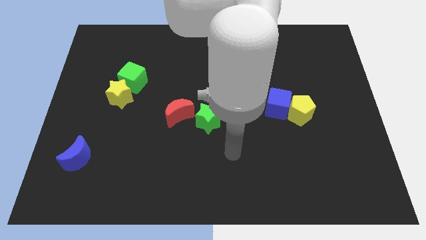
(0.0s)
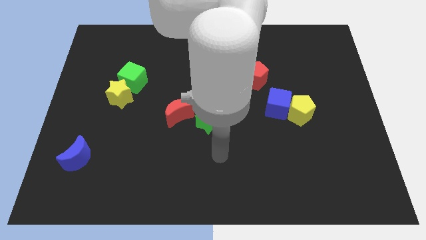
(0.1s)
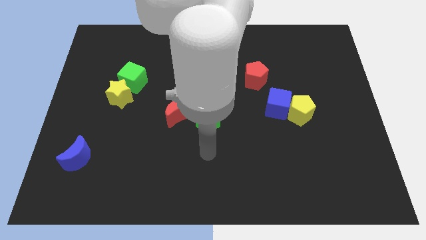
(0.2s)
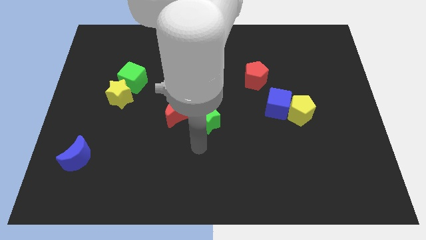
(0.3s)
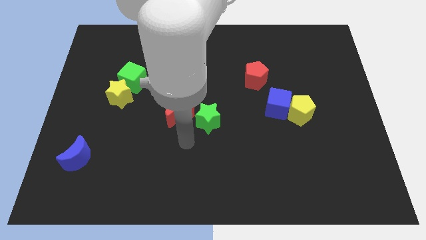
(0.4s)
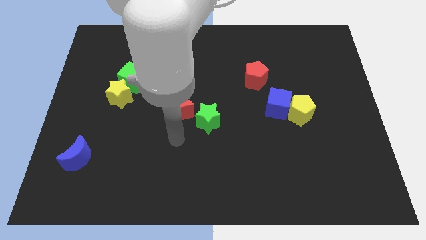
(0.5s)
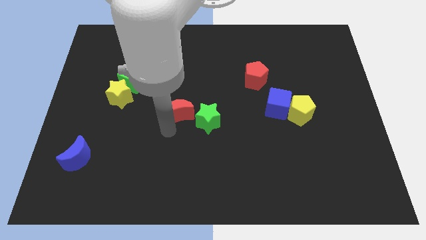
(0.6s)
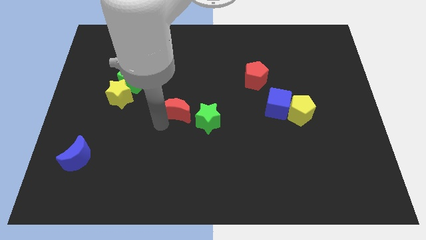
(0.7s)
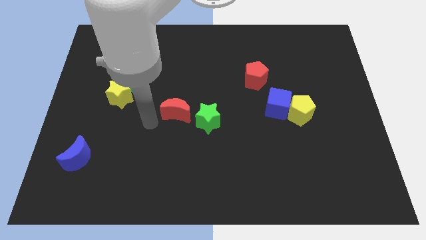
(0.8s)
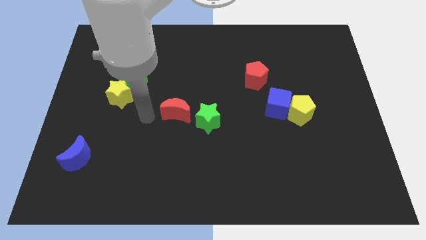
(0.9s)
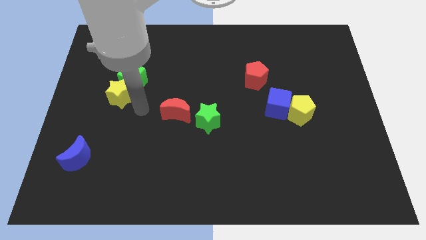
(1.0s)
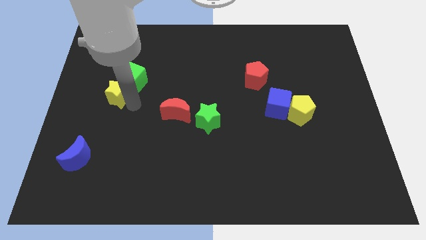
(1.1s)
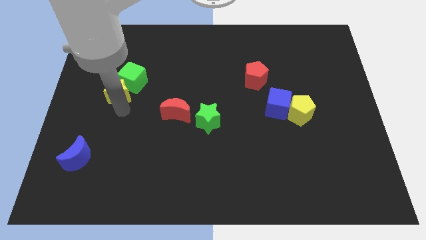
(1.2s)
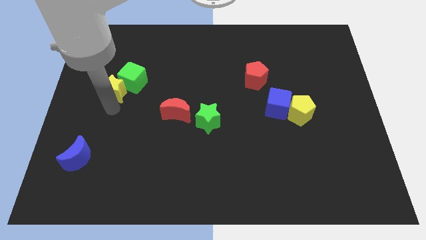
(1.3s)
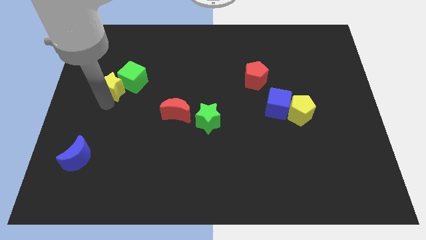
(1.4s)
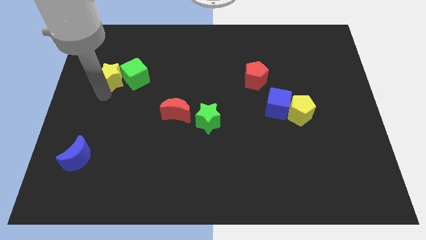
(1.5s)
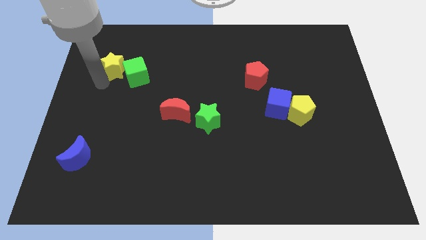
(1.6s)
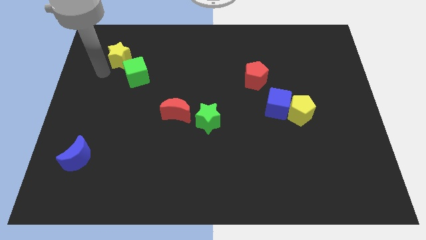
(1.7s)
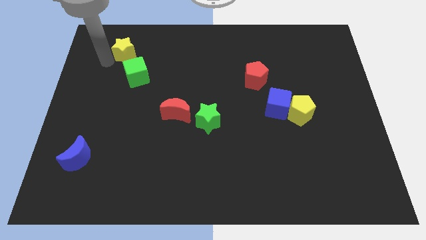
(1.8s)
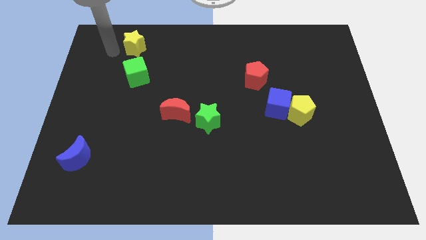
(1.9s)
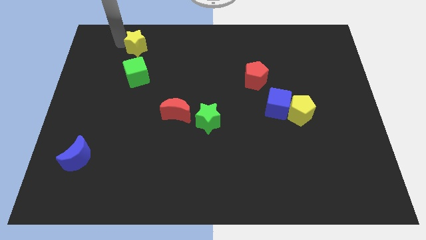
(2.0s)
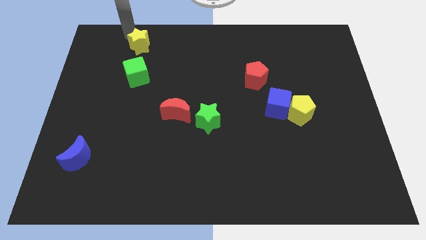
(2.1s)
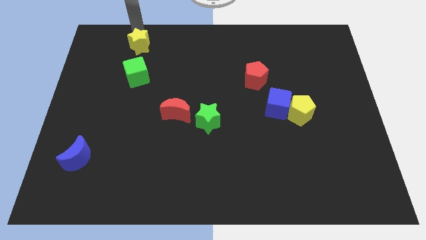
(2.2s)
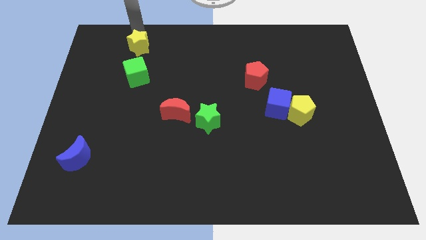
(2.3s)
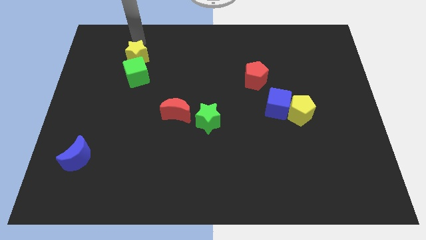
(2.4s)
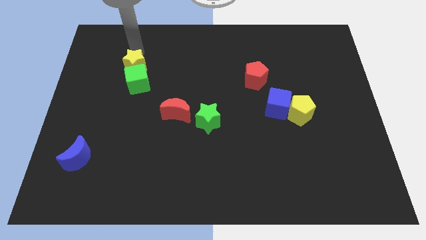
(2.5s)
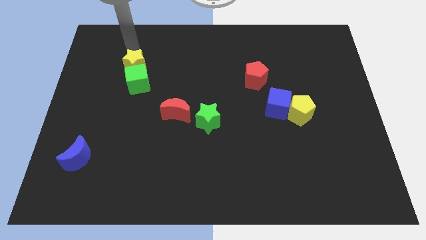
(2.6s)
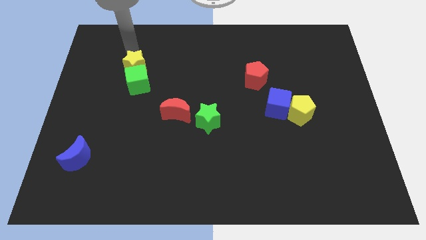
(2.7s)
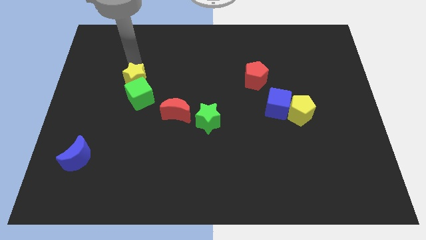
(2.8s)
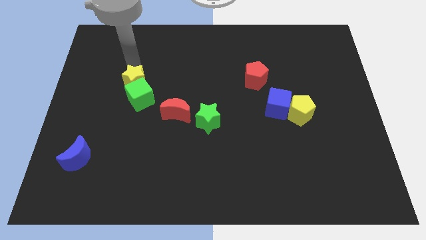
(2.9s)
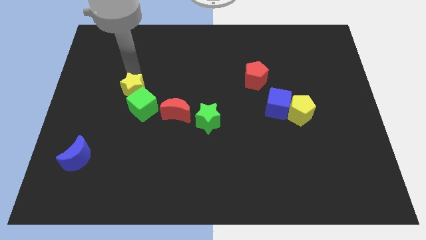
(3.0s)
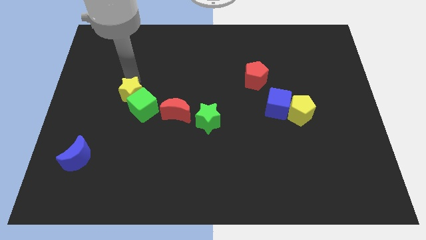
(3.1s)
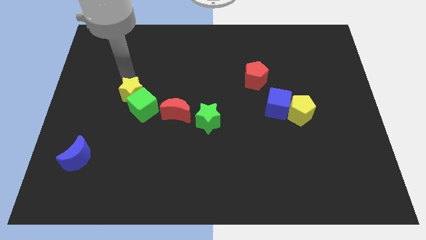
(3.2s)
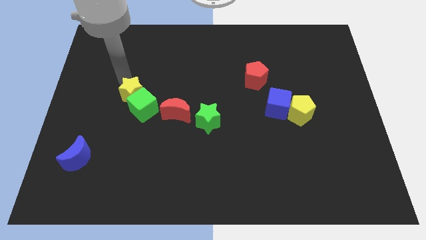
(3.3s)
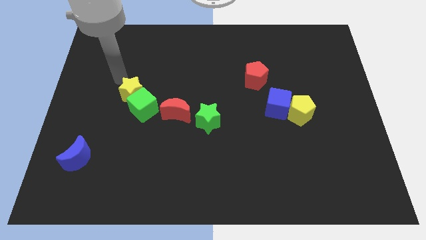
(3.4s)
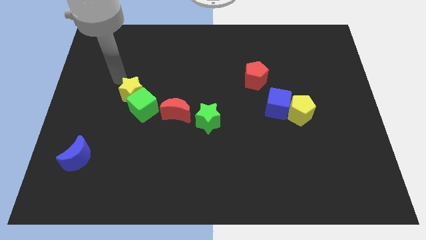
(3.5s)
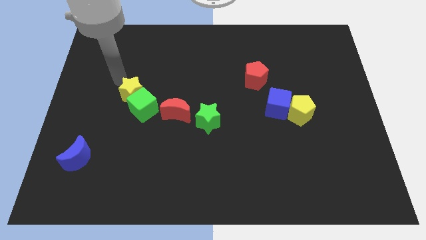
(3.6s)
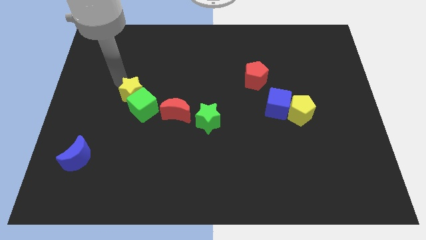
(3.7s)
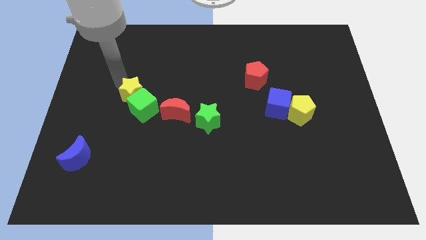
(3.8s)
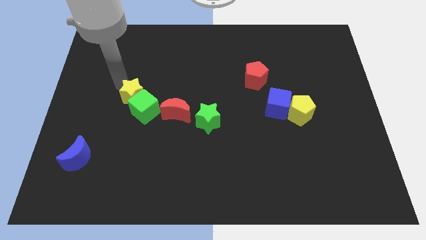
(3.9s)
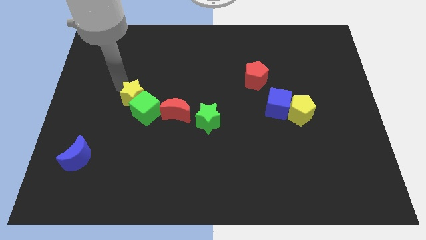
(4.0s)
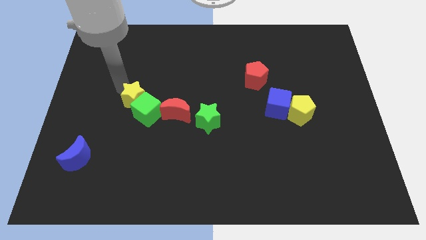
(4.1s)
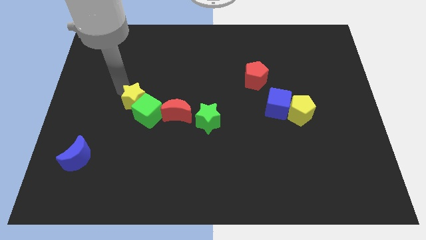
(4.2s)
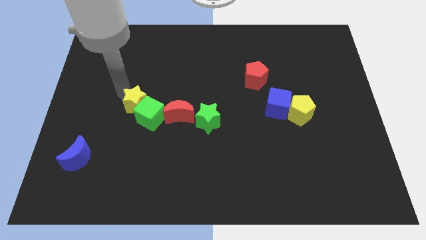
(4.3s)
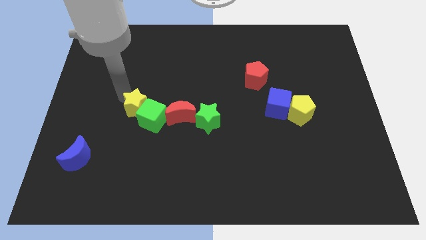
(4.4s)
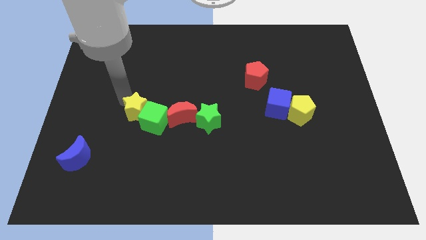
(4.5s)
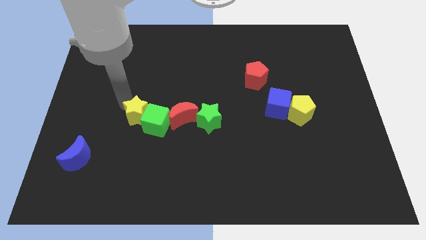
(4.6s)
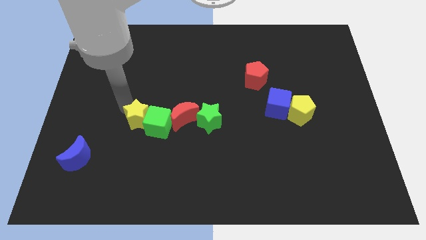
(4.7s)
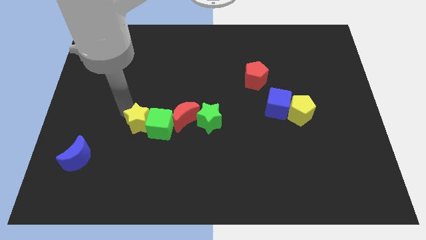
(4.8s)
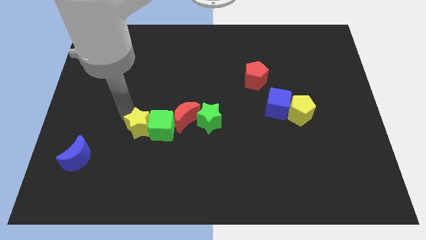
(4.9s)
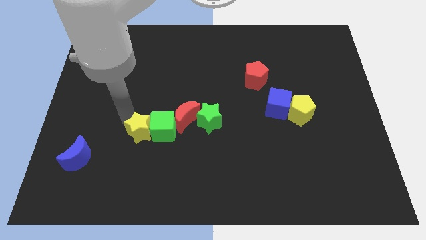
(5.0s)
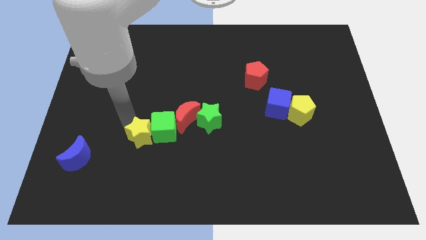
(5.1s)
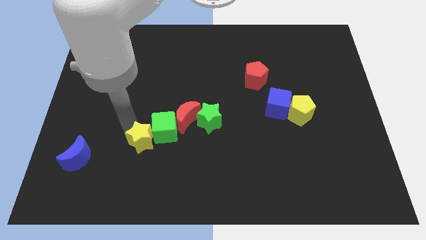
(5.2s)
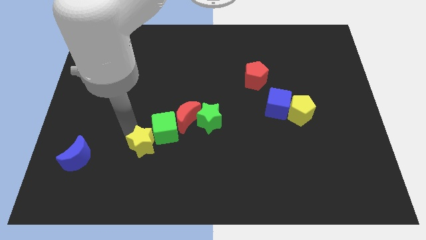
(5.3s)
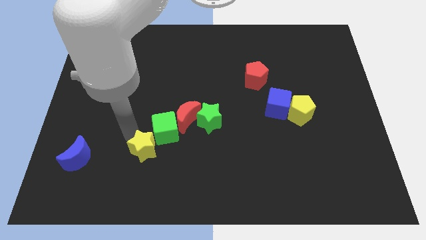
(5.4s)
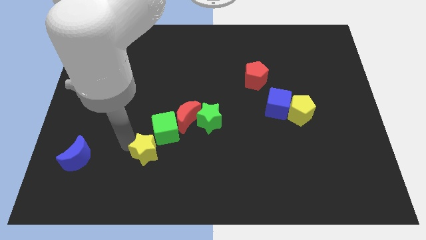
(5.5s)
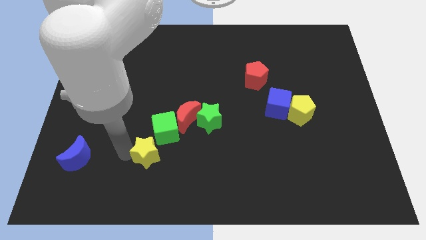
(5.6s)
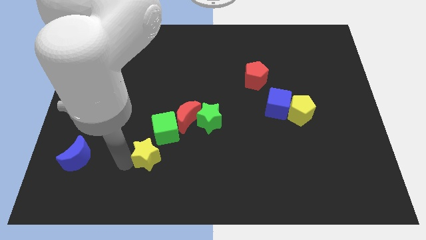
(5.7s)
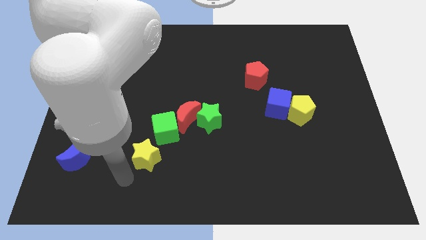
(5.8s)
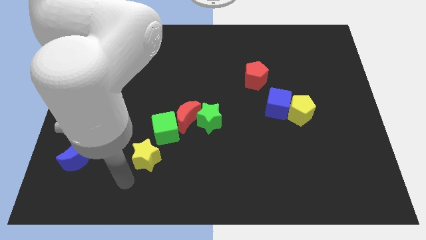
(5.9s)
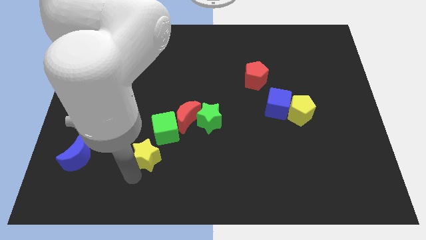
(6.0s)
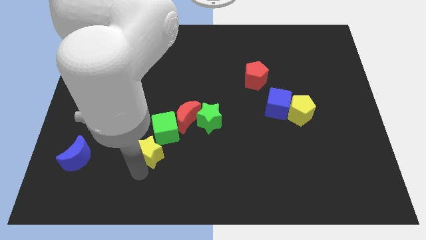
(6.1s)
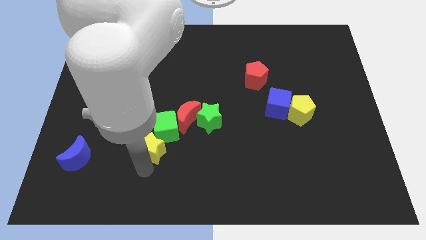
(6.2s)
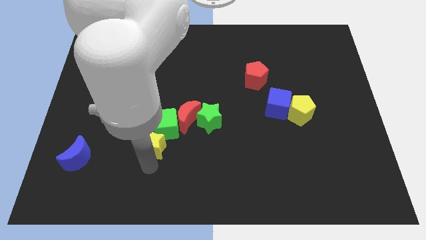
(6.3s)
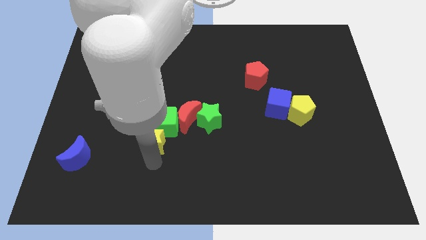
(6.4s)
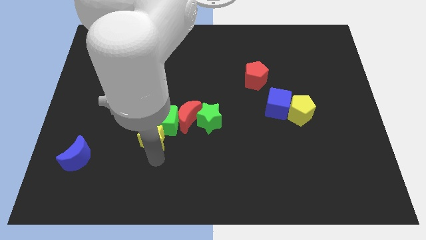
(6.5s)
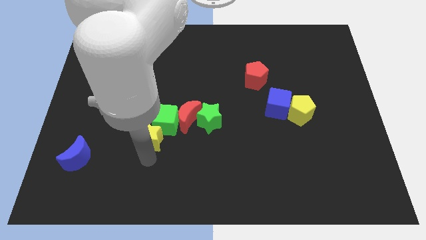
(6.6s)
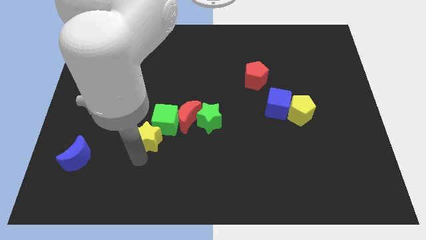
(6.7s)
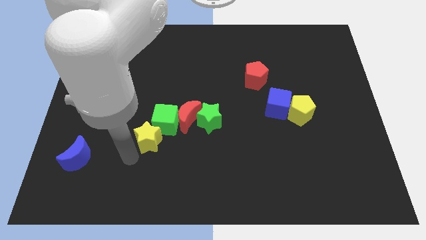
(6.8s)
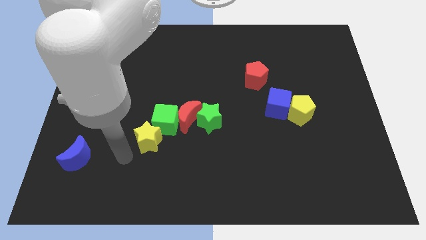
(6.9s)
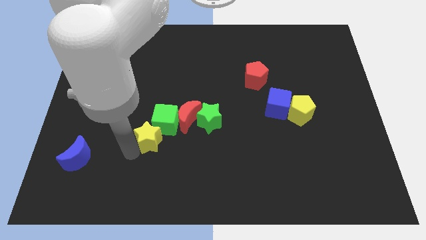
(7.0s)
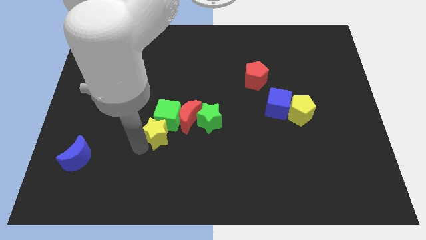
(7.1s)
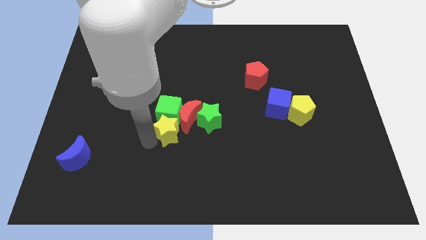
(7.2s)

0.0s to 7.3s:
put the yellow star to the red moon
